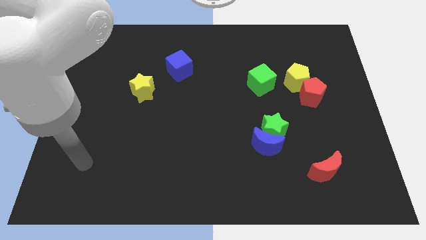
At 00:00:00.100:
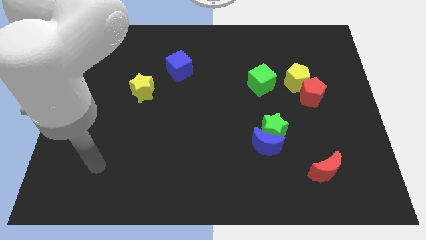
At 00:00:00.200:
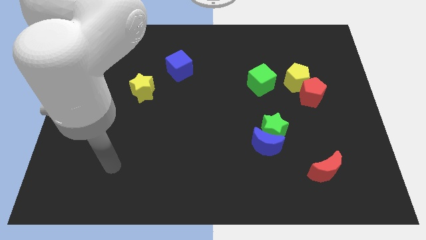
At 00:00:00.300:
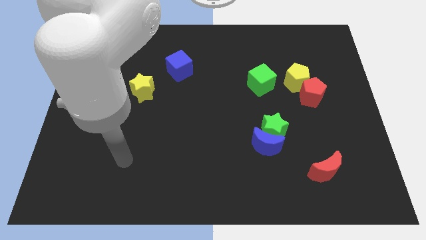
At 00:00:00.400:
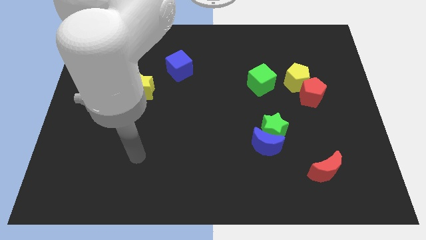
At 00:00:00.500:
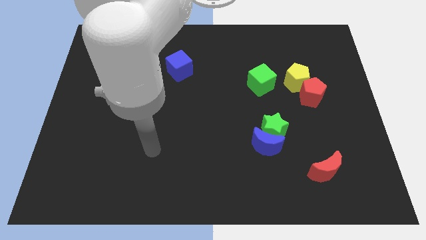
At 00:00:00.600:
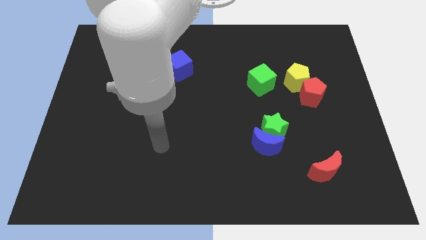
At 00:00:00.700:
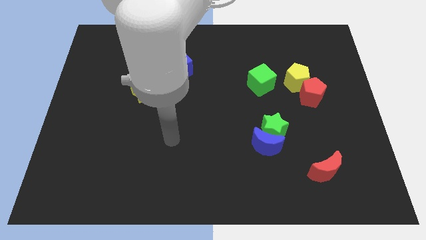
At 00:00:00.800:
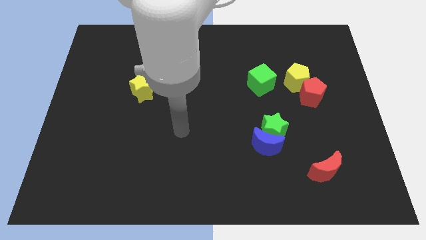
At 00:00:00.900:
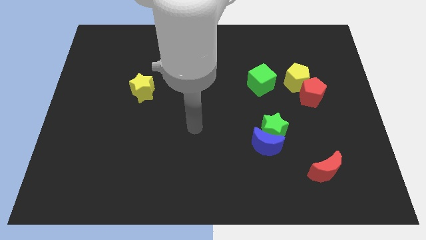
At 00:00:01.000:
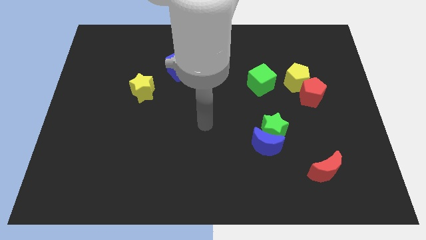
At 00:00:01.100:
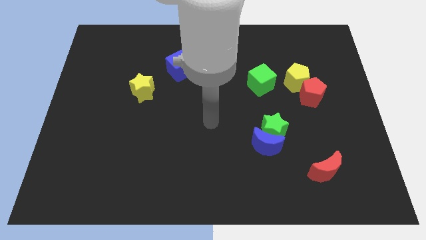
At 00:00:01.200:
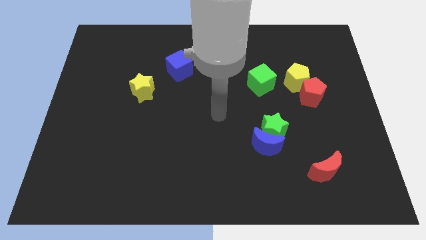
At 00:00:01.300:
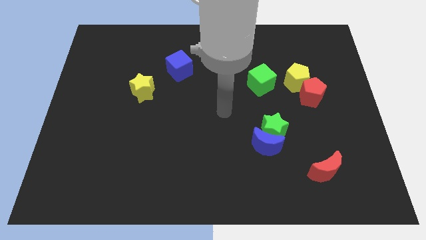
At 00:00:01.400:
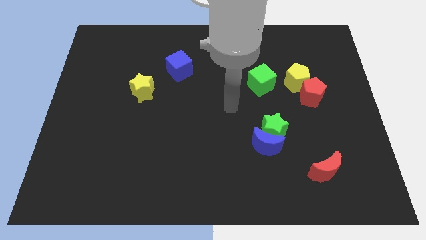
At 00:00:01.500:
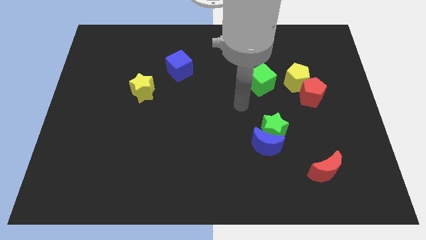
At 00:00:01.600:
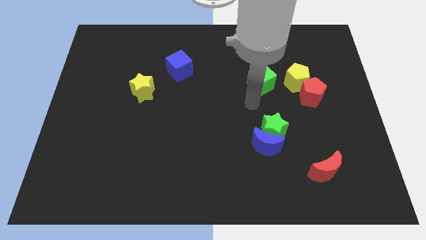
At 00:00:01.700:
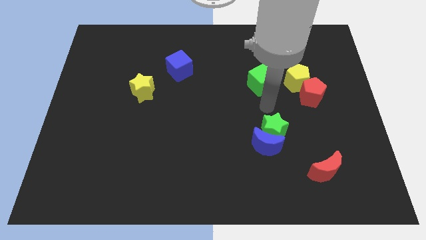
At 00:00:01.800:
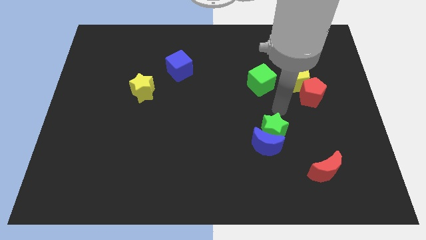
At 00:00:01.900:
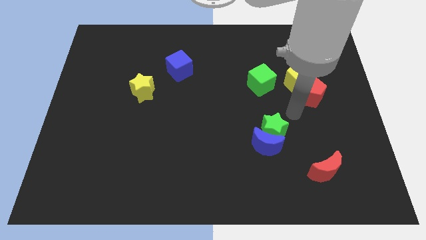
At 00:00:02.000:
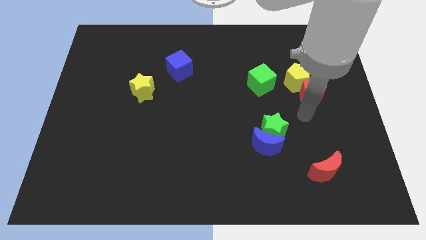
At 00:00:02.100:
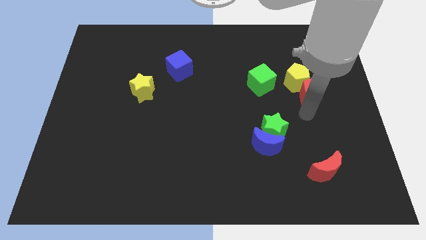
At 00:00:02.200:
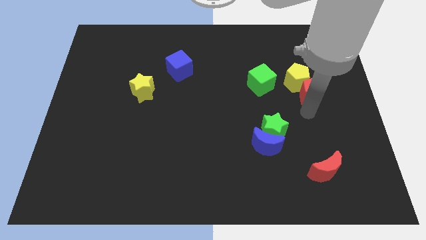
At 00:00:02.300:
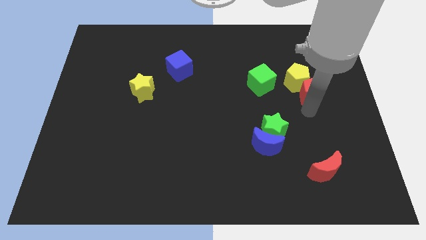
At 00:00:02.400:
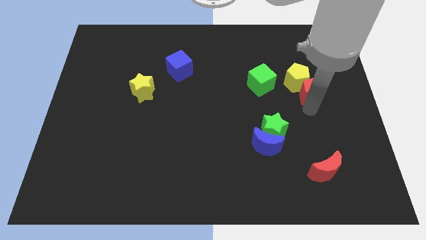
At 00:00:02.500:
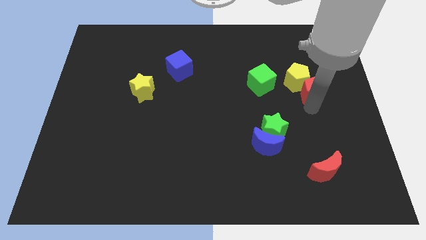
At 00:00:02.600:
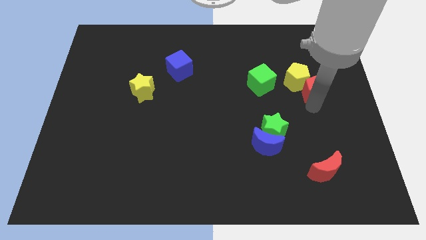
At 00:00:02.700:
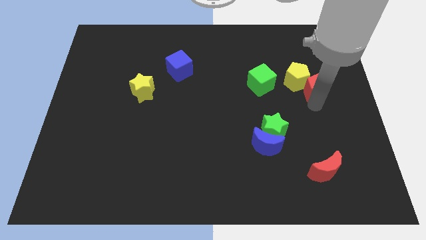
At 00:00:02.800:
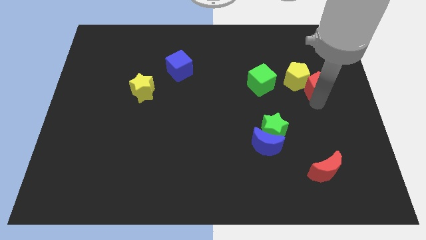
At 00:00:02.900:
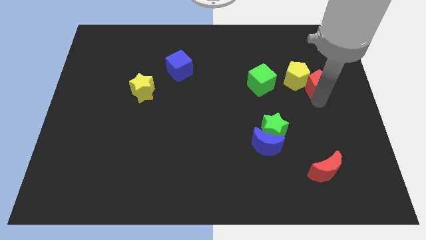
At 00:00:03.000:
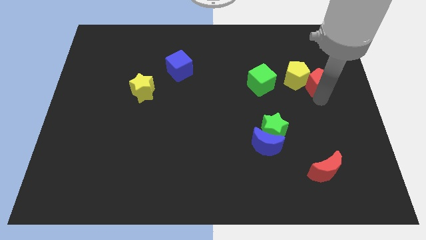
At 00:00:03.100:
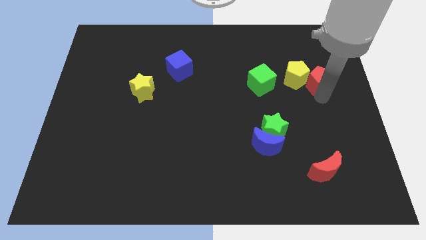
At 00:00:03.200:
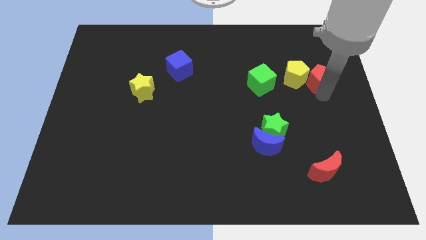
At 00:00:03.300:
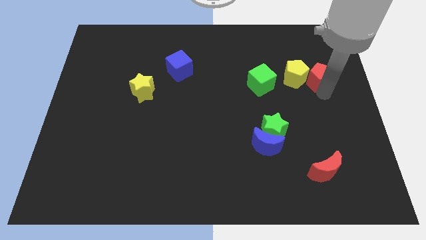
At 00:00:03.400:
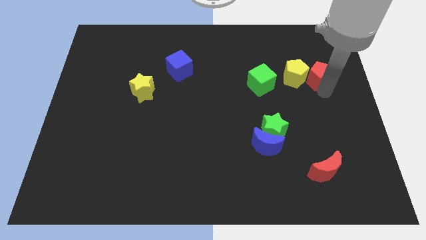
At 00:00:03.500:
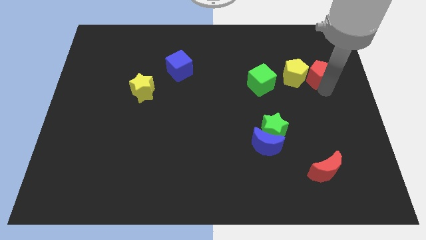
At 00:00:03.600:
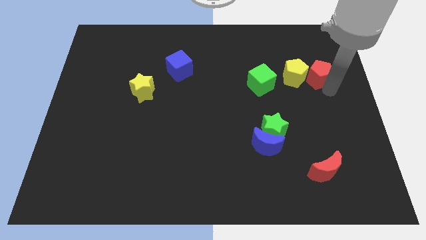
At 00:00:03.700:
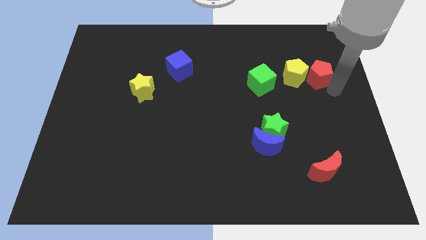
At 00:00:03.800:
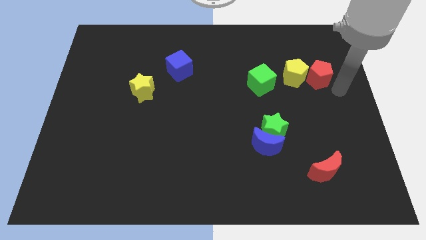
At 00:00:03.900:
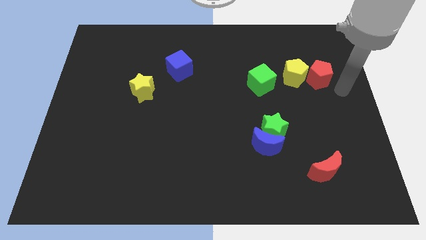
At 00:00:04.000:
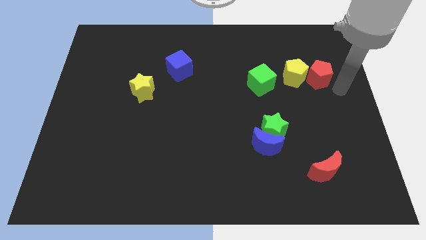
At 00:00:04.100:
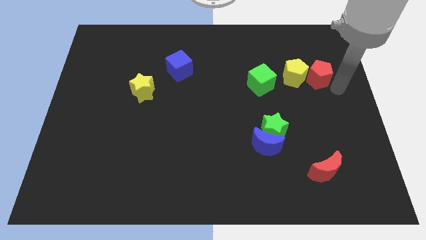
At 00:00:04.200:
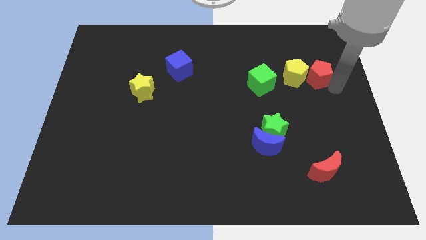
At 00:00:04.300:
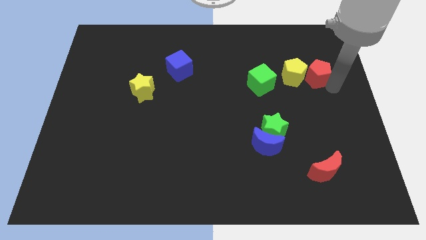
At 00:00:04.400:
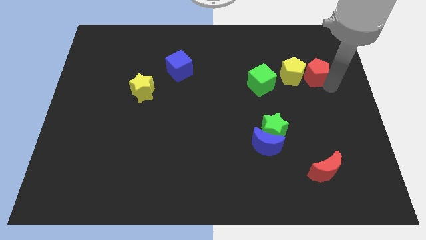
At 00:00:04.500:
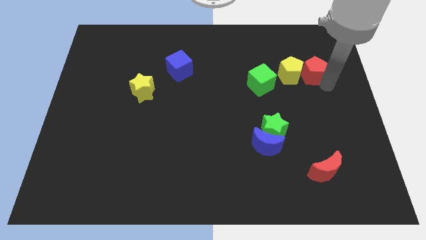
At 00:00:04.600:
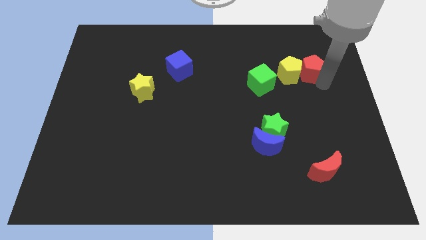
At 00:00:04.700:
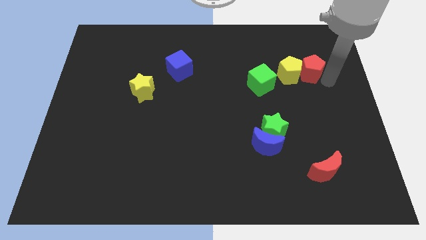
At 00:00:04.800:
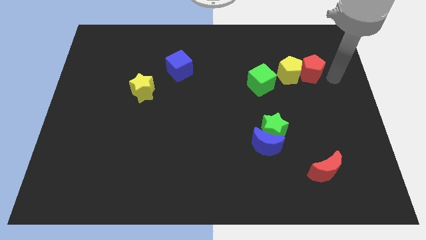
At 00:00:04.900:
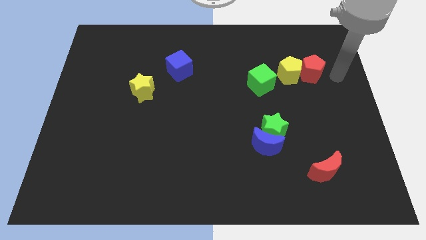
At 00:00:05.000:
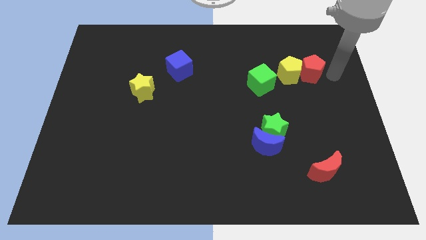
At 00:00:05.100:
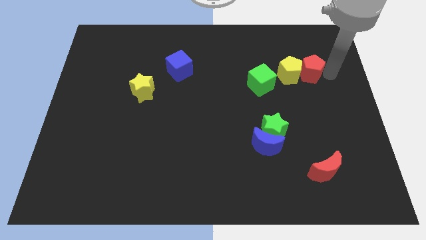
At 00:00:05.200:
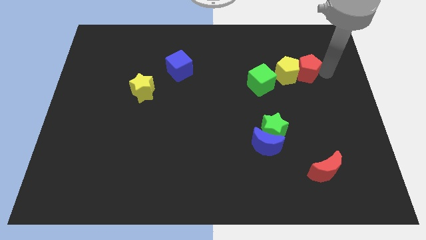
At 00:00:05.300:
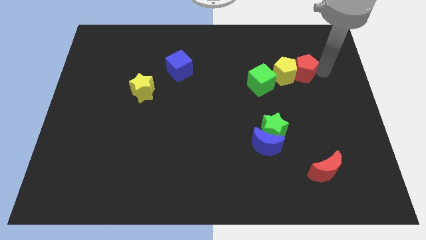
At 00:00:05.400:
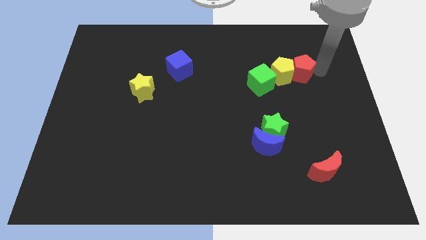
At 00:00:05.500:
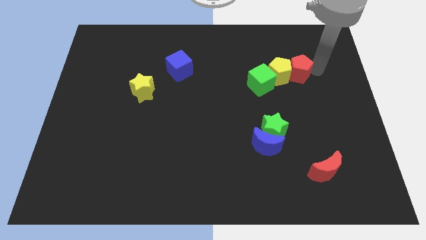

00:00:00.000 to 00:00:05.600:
move the red pentagon to the top right side of the green cube

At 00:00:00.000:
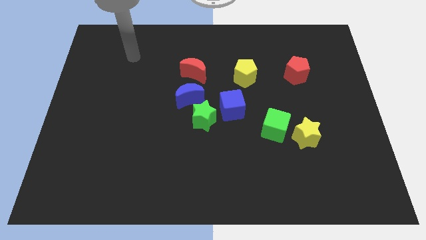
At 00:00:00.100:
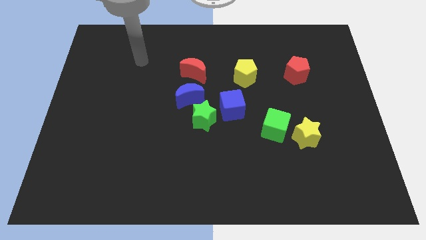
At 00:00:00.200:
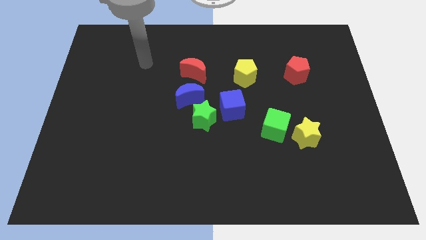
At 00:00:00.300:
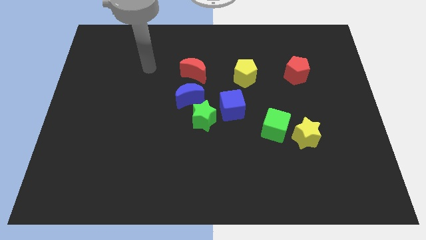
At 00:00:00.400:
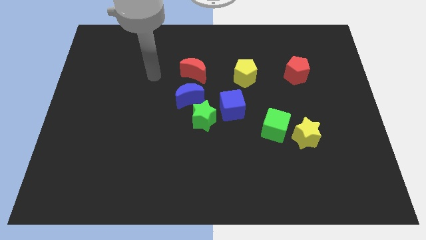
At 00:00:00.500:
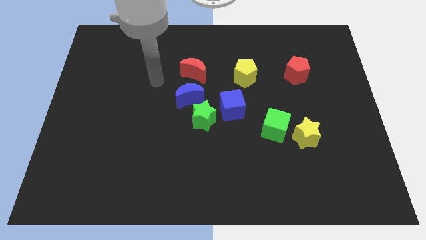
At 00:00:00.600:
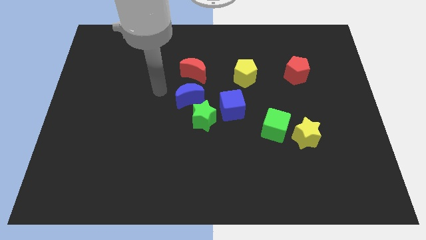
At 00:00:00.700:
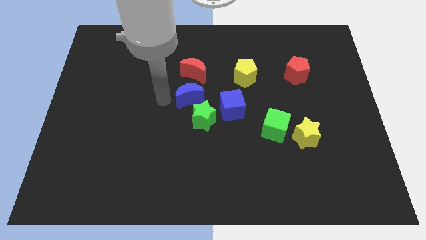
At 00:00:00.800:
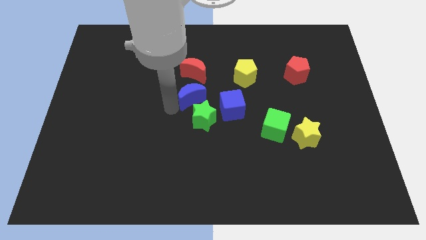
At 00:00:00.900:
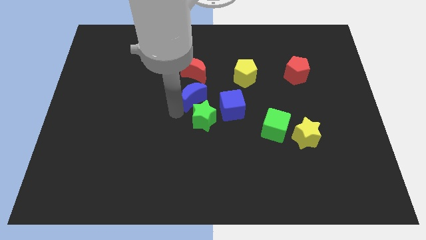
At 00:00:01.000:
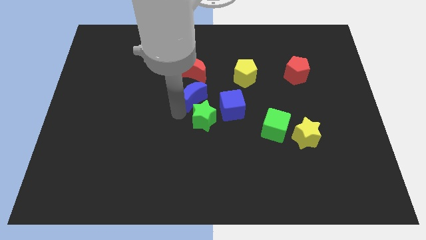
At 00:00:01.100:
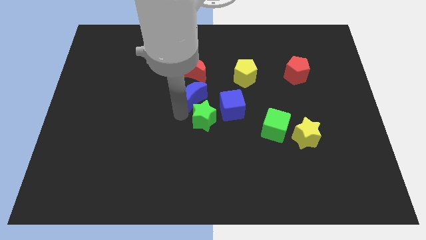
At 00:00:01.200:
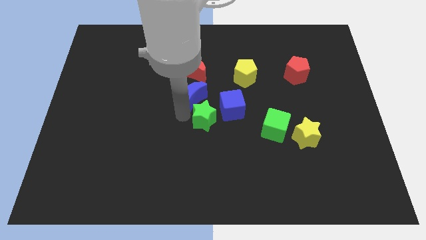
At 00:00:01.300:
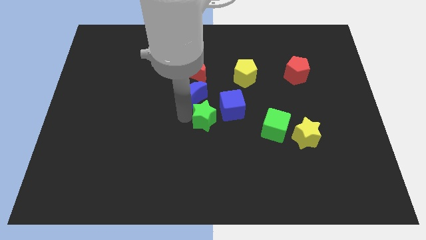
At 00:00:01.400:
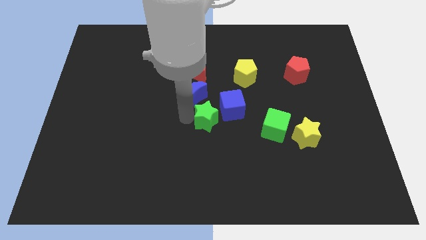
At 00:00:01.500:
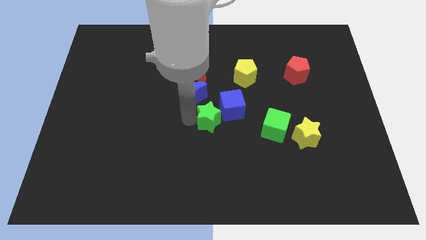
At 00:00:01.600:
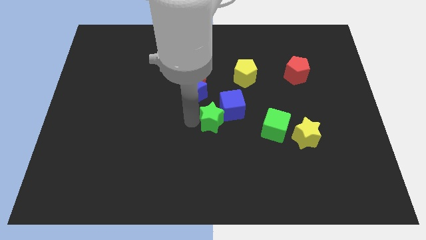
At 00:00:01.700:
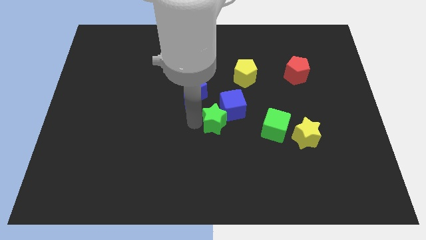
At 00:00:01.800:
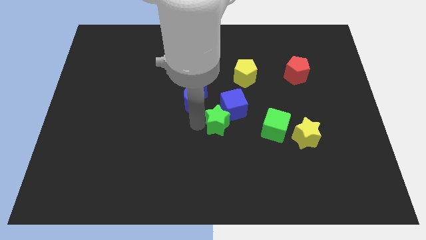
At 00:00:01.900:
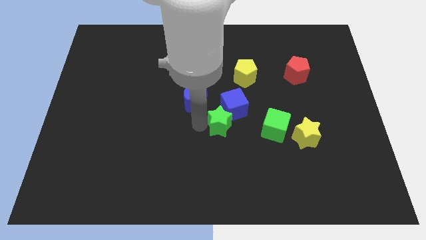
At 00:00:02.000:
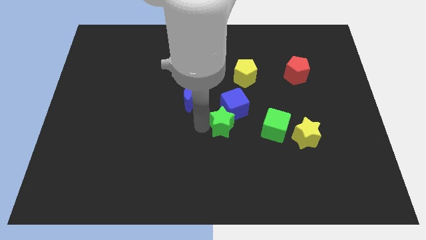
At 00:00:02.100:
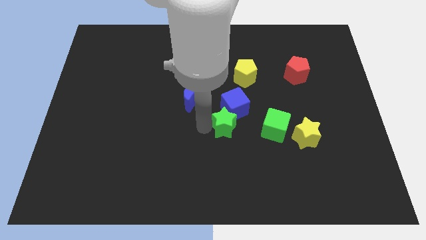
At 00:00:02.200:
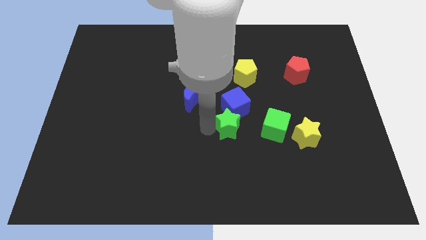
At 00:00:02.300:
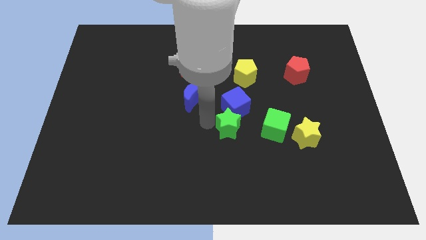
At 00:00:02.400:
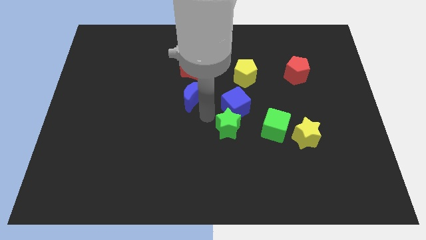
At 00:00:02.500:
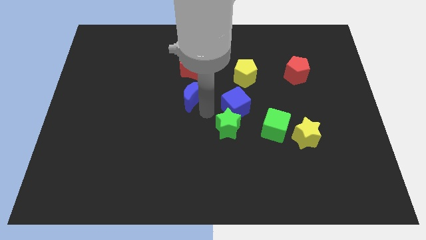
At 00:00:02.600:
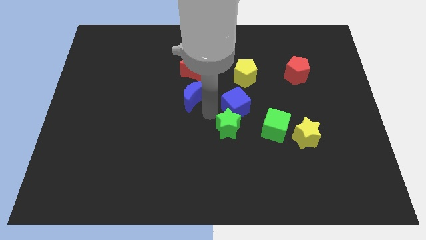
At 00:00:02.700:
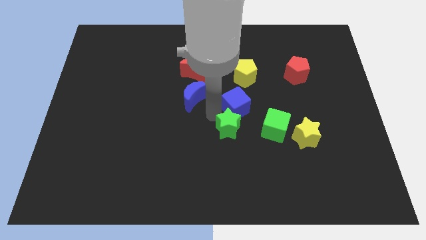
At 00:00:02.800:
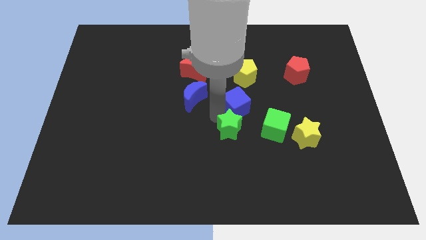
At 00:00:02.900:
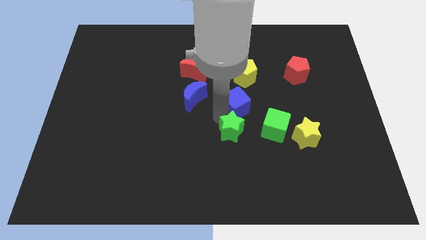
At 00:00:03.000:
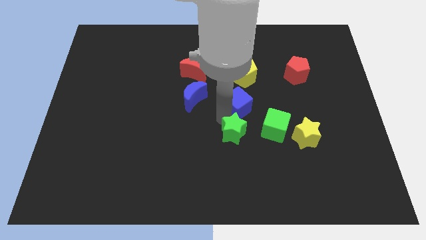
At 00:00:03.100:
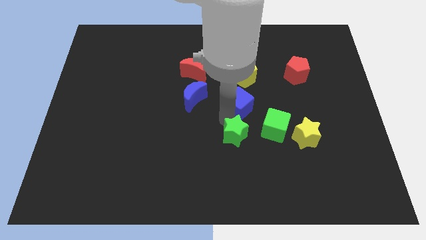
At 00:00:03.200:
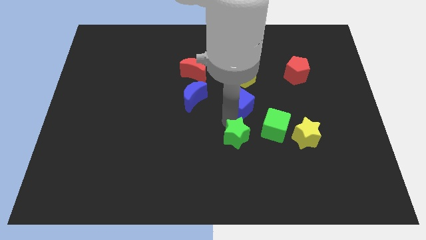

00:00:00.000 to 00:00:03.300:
put the green star diagonally down and to the left of the green cube
